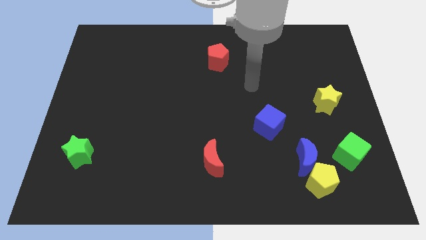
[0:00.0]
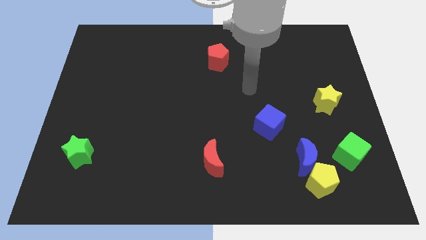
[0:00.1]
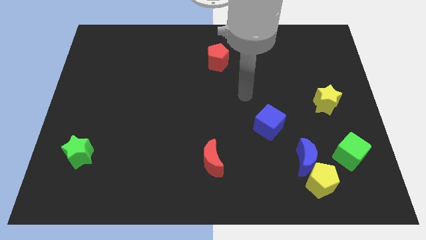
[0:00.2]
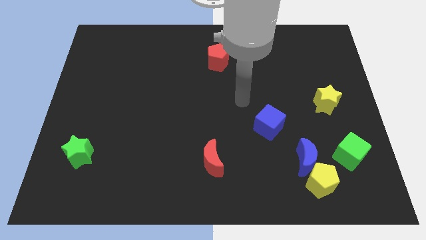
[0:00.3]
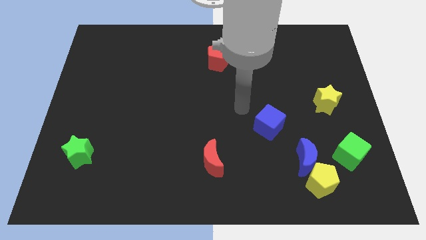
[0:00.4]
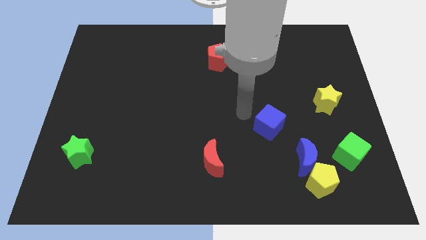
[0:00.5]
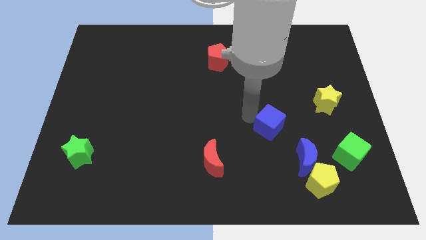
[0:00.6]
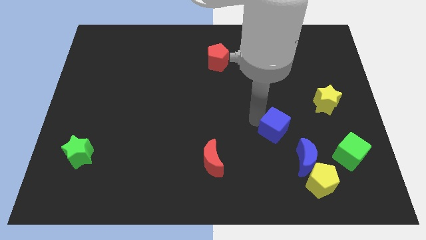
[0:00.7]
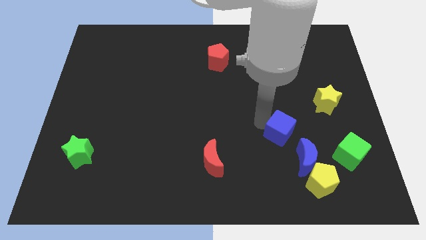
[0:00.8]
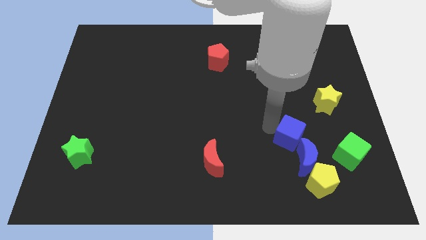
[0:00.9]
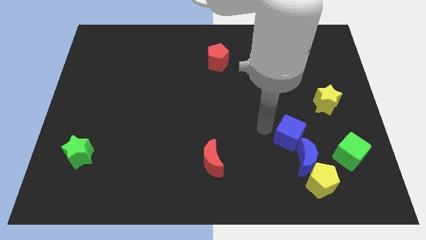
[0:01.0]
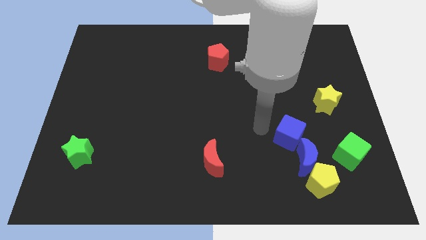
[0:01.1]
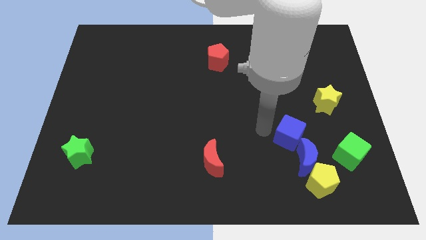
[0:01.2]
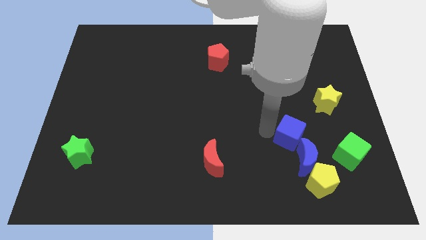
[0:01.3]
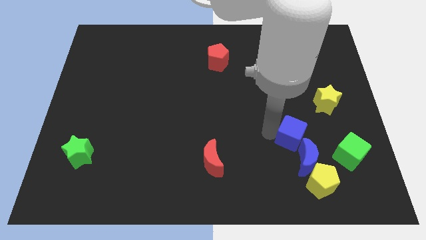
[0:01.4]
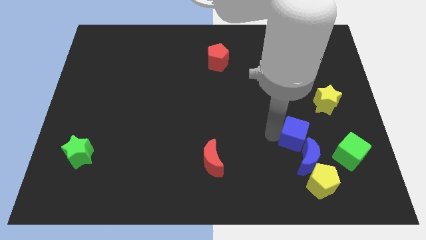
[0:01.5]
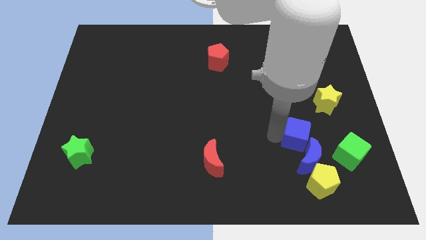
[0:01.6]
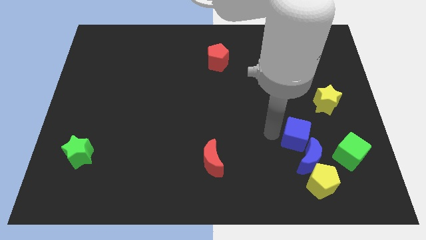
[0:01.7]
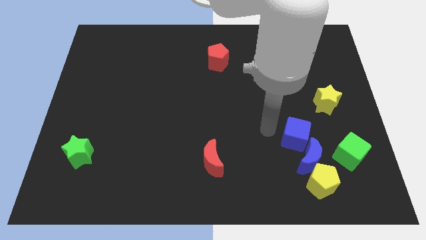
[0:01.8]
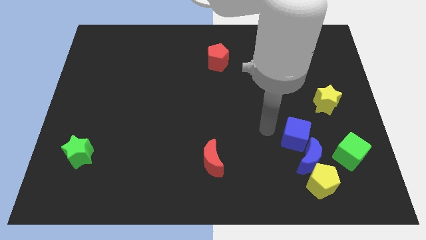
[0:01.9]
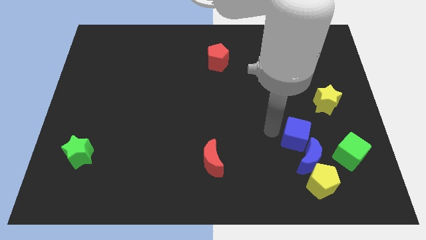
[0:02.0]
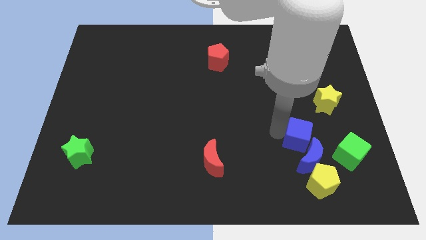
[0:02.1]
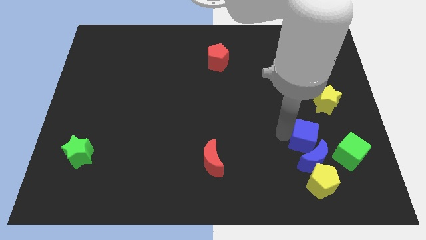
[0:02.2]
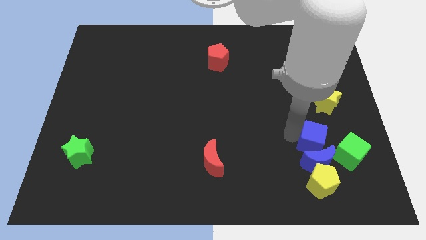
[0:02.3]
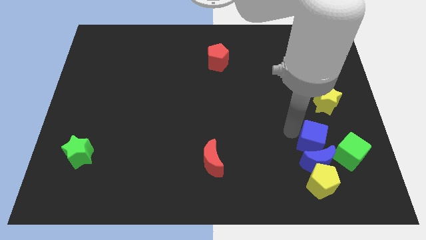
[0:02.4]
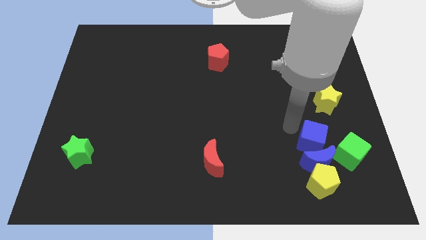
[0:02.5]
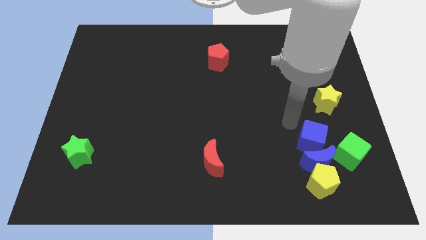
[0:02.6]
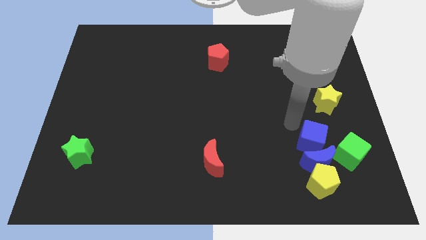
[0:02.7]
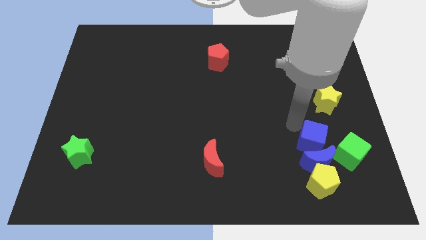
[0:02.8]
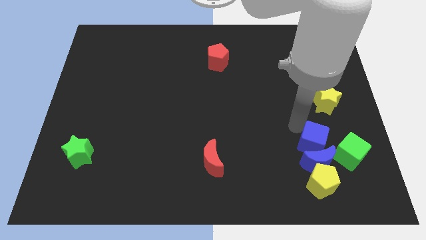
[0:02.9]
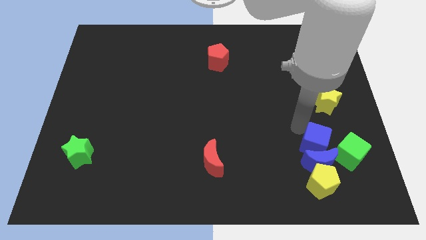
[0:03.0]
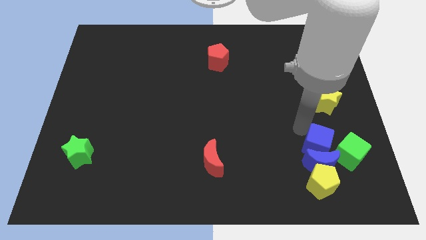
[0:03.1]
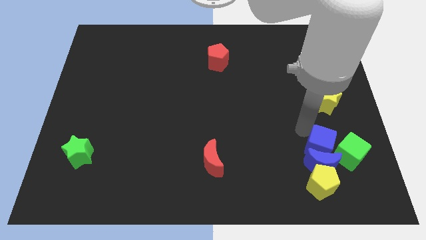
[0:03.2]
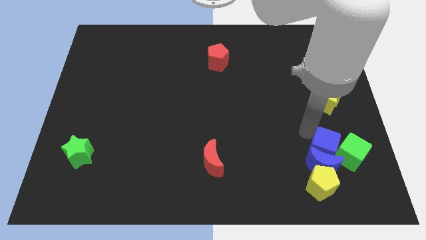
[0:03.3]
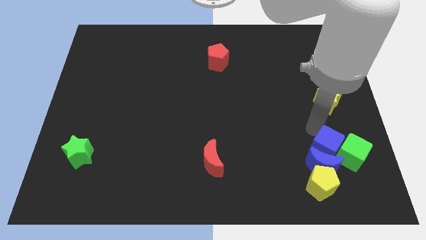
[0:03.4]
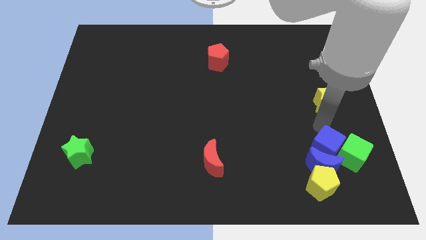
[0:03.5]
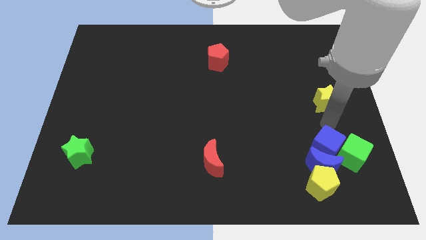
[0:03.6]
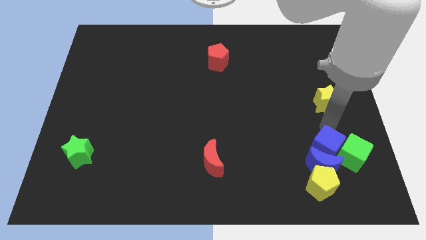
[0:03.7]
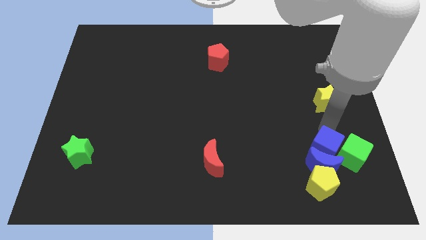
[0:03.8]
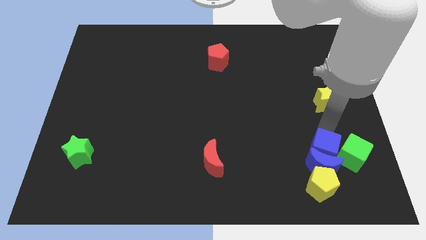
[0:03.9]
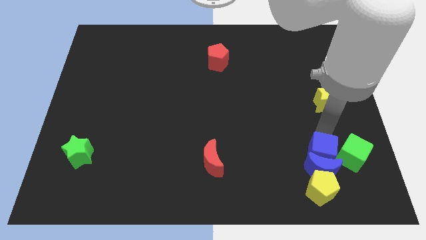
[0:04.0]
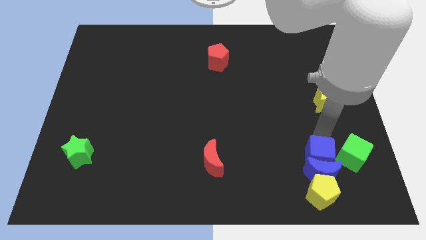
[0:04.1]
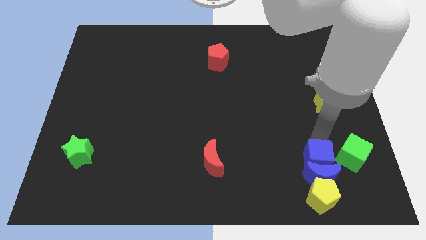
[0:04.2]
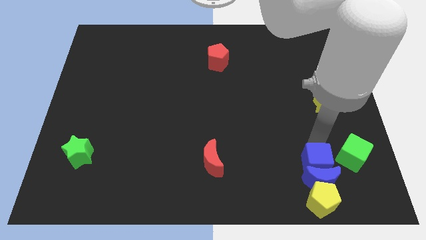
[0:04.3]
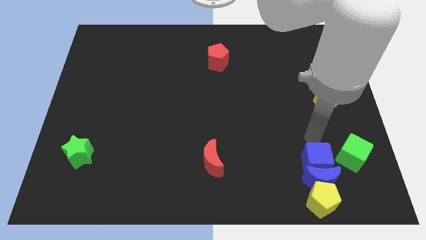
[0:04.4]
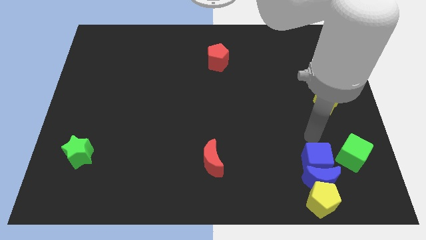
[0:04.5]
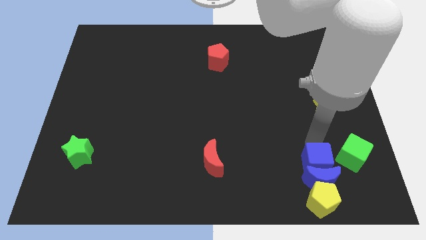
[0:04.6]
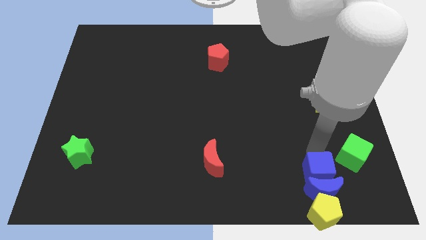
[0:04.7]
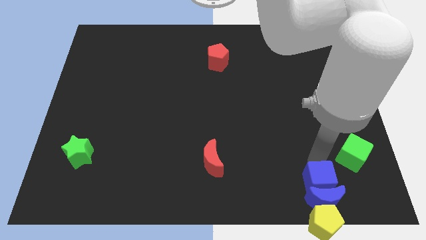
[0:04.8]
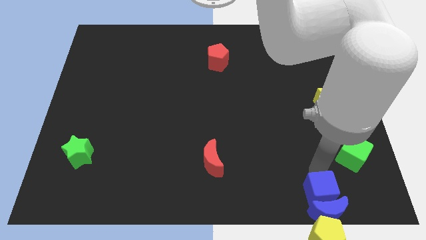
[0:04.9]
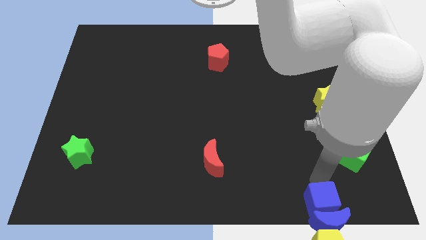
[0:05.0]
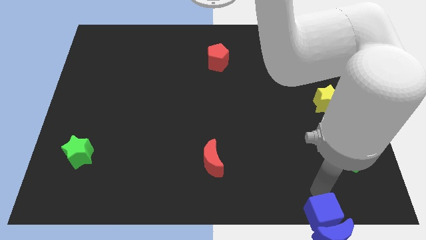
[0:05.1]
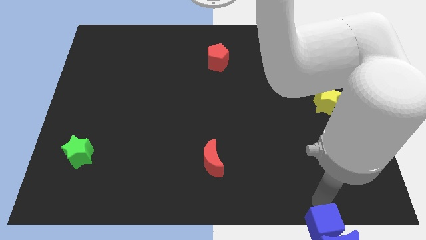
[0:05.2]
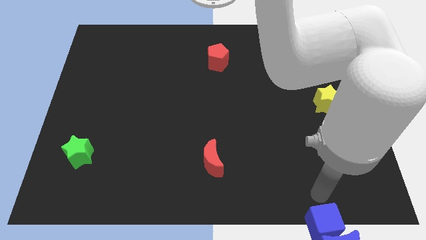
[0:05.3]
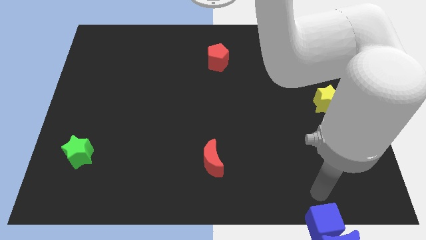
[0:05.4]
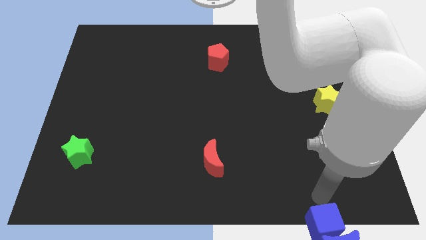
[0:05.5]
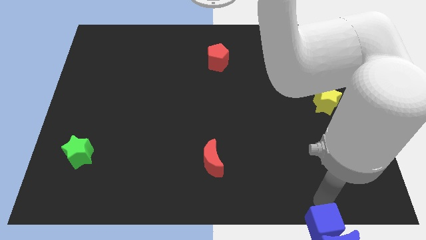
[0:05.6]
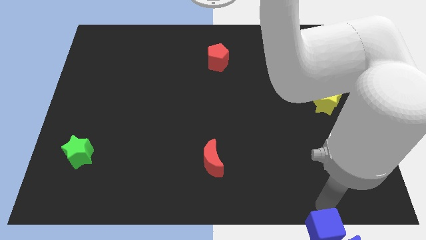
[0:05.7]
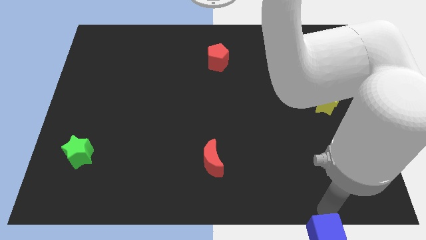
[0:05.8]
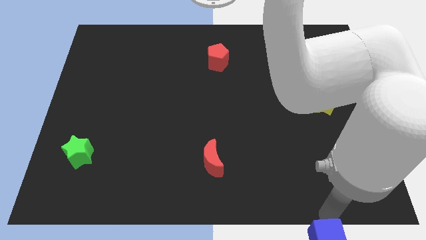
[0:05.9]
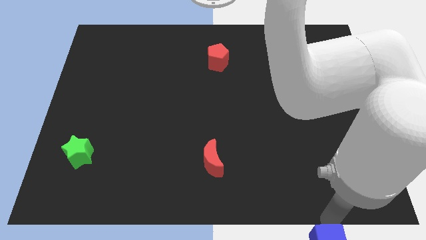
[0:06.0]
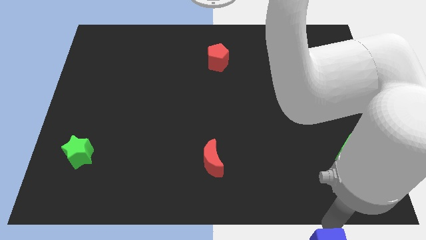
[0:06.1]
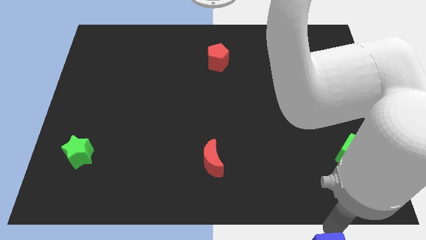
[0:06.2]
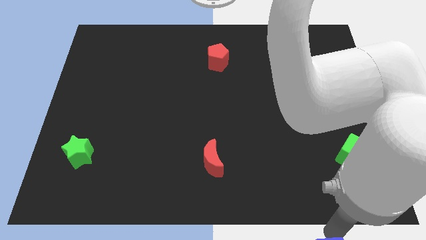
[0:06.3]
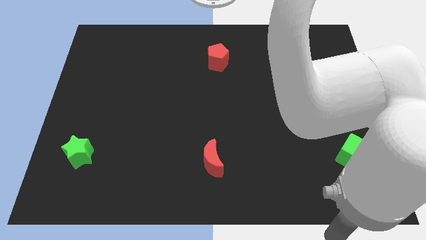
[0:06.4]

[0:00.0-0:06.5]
slide the blue cube next to the yellow pentagon
